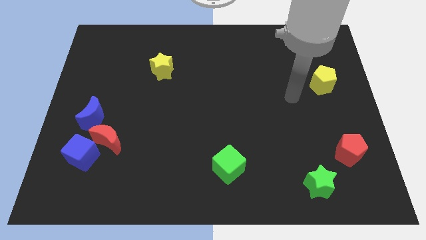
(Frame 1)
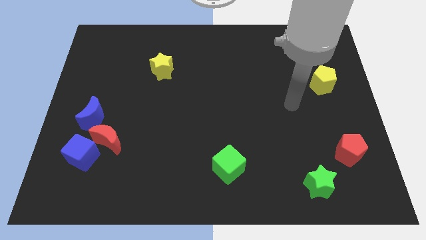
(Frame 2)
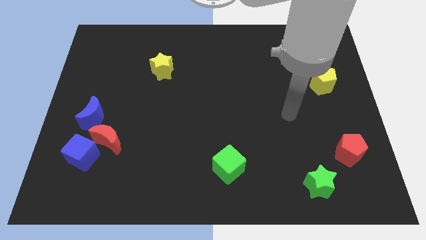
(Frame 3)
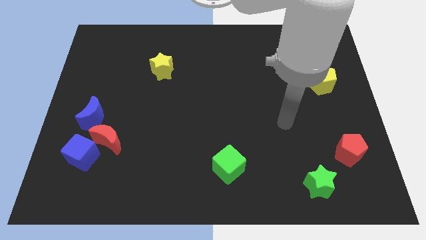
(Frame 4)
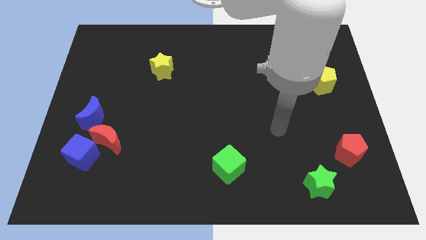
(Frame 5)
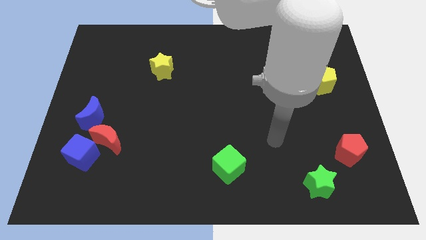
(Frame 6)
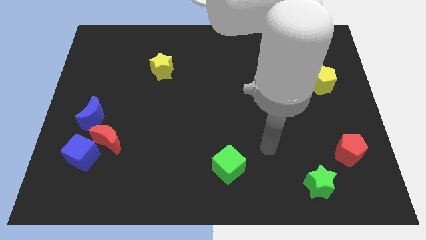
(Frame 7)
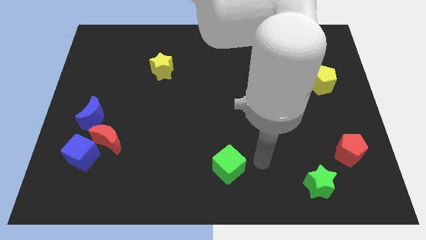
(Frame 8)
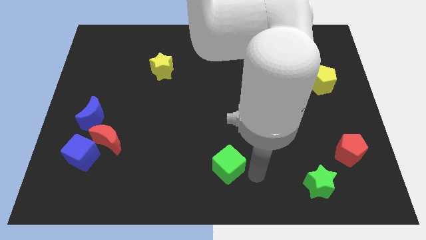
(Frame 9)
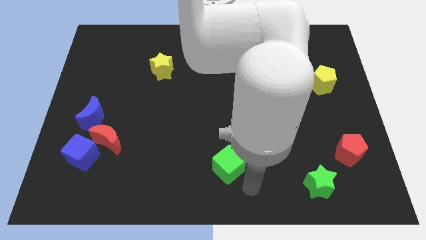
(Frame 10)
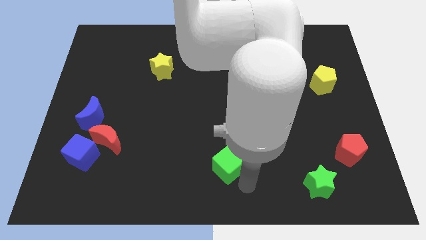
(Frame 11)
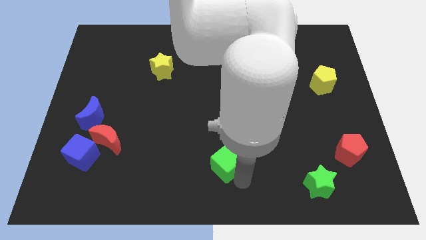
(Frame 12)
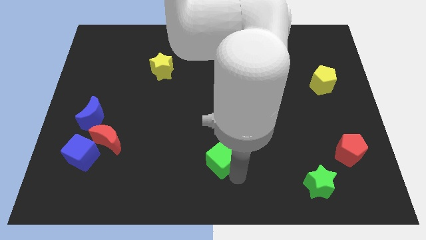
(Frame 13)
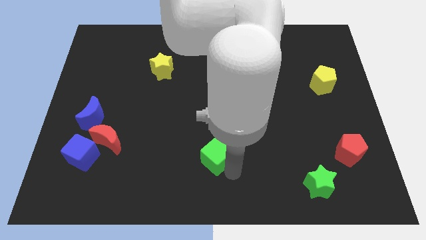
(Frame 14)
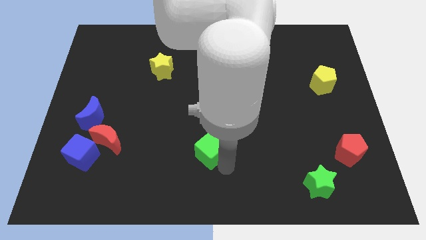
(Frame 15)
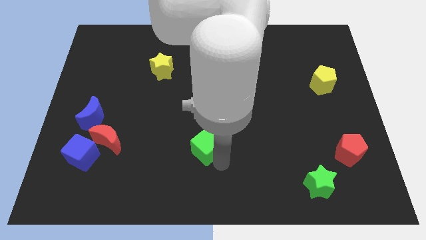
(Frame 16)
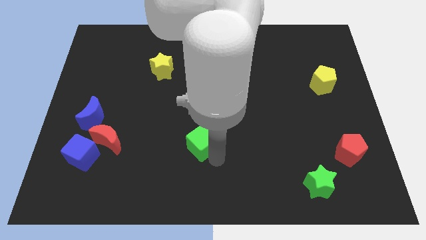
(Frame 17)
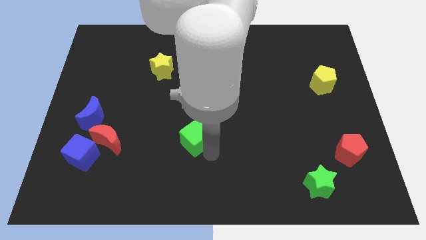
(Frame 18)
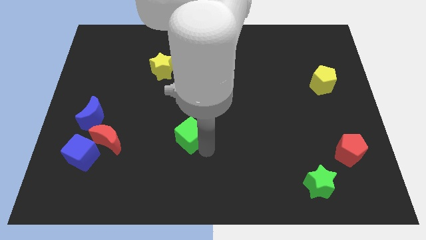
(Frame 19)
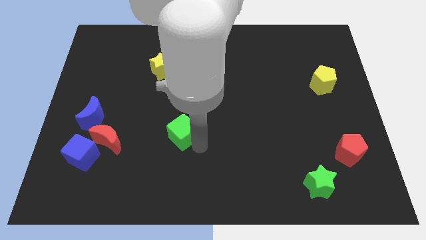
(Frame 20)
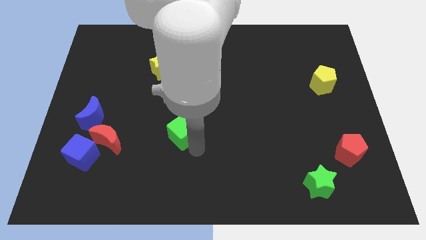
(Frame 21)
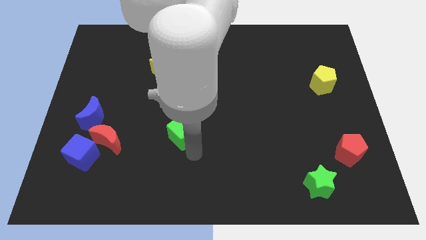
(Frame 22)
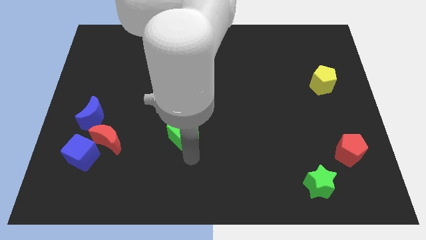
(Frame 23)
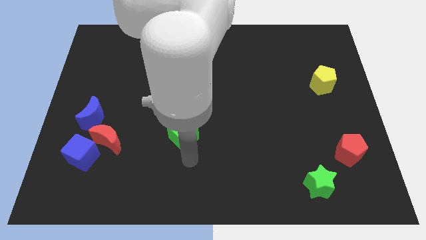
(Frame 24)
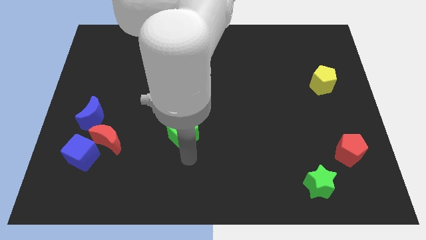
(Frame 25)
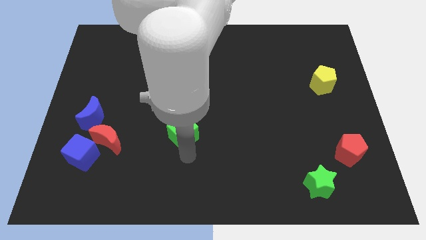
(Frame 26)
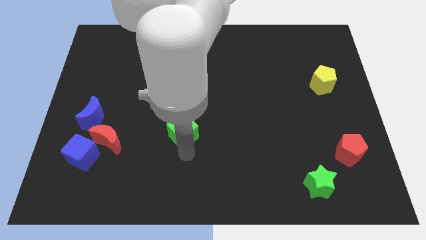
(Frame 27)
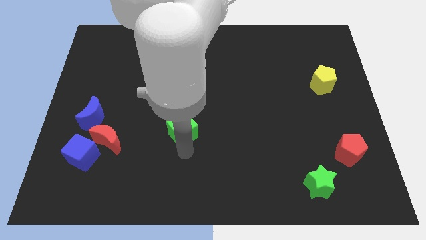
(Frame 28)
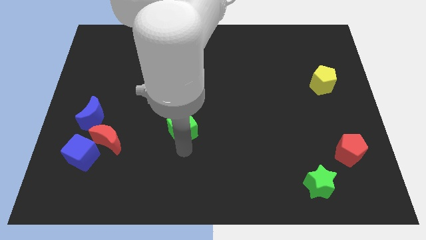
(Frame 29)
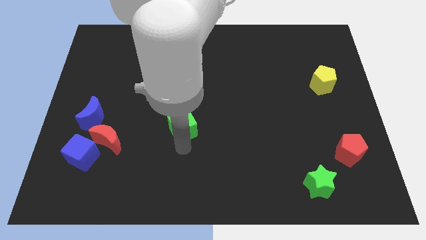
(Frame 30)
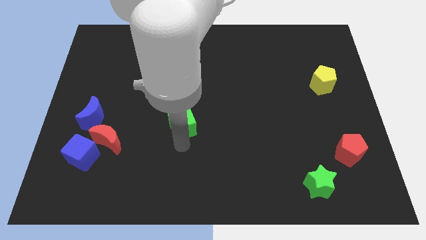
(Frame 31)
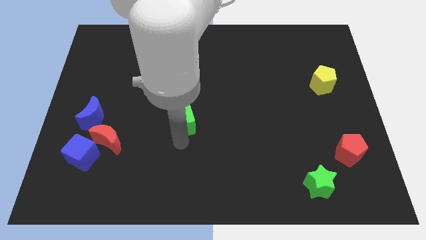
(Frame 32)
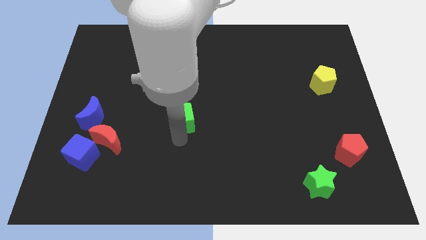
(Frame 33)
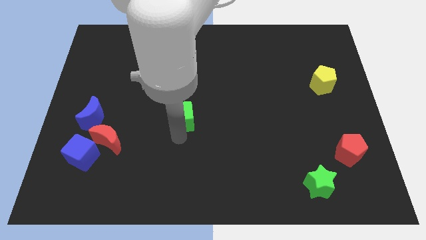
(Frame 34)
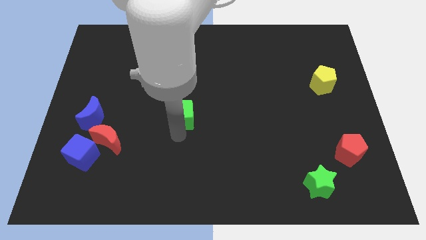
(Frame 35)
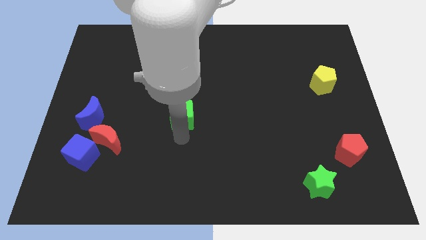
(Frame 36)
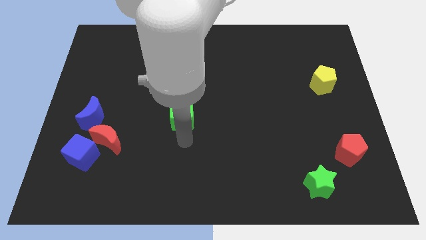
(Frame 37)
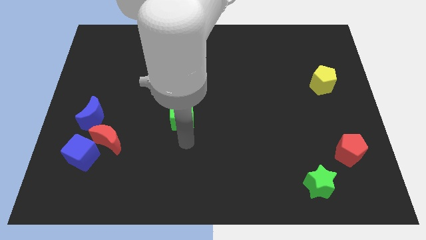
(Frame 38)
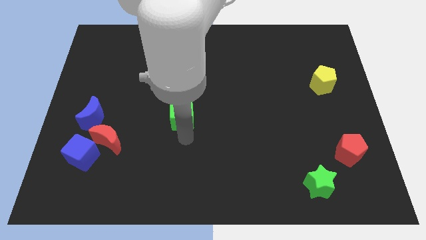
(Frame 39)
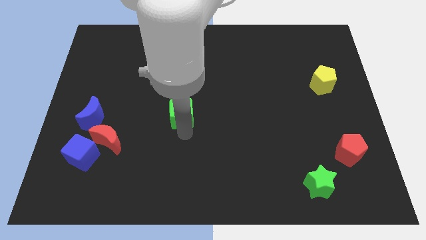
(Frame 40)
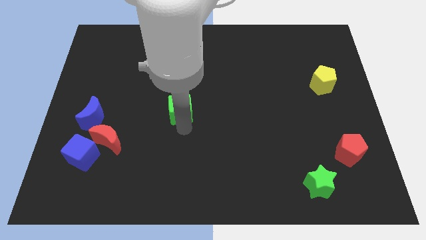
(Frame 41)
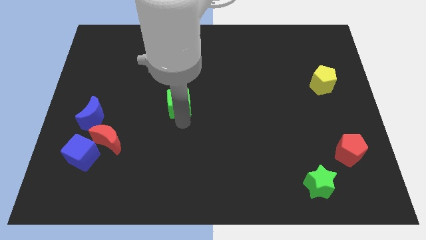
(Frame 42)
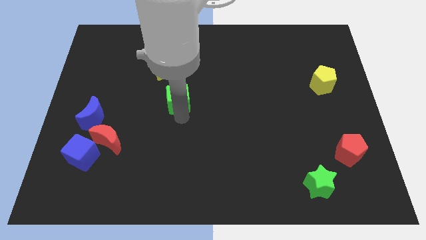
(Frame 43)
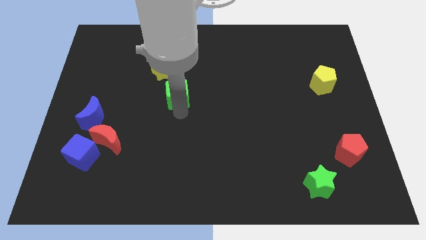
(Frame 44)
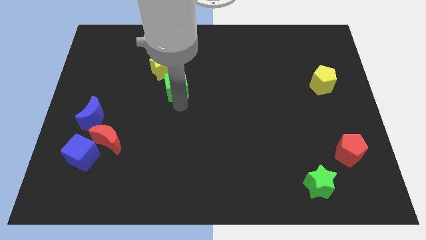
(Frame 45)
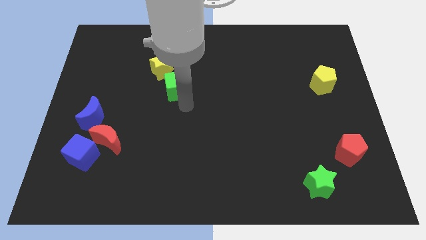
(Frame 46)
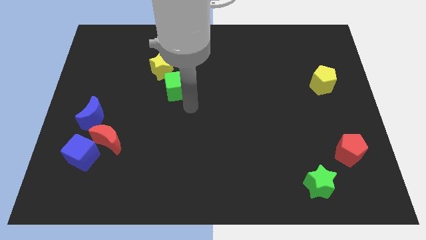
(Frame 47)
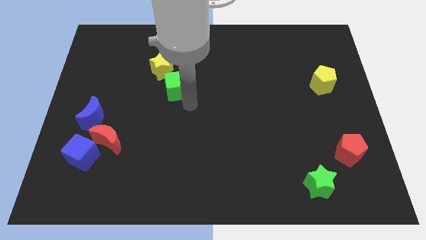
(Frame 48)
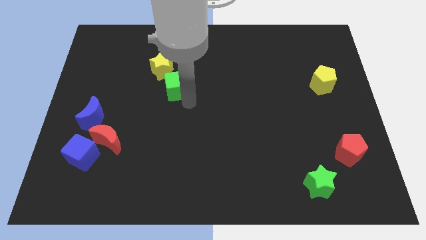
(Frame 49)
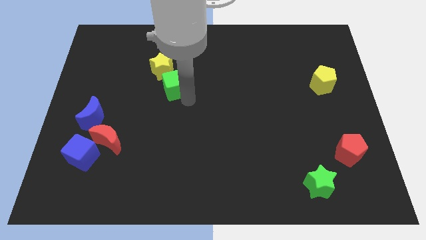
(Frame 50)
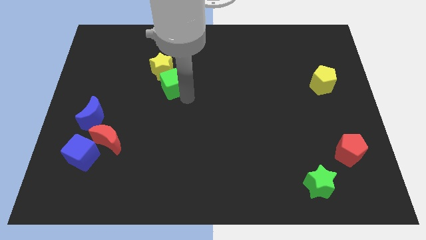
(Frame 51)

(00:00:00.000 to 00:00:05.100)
move the green cube close to the yellow star

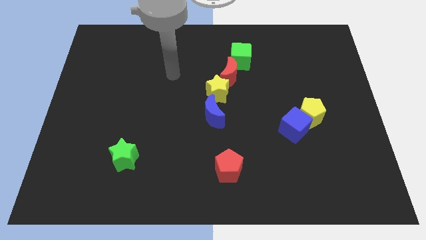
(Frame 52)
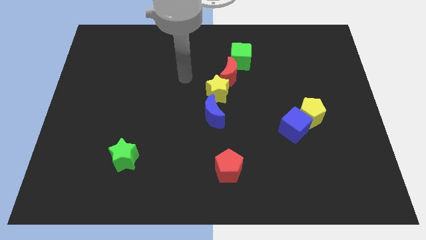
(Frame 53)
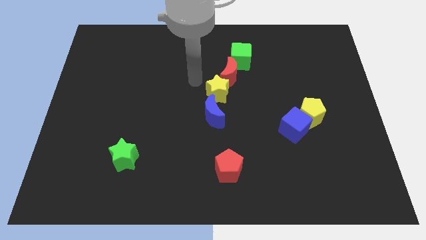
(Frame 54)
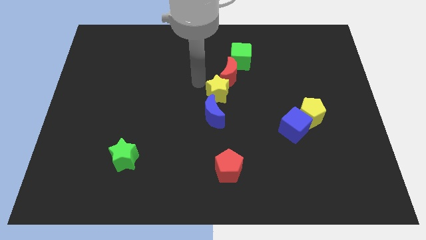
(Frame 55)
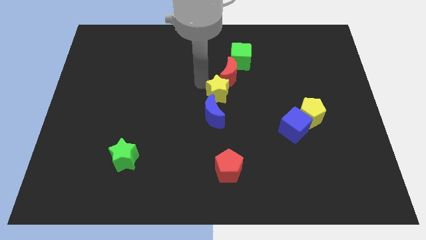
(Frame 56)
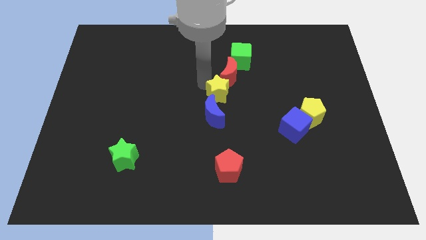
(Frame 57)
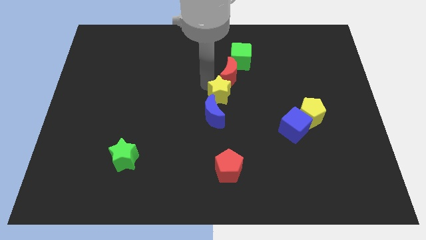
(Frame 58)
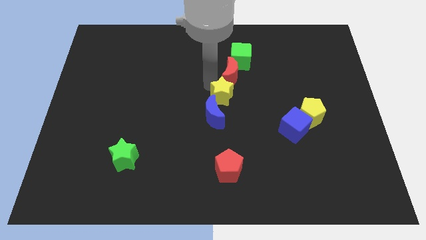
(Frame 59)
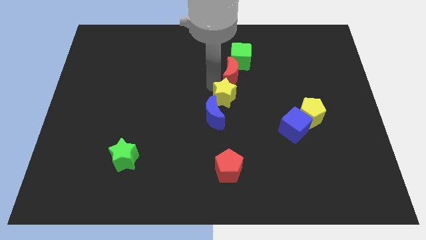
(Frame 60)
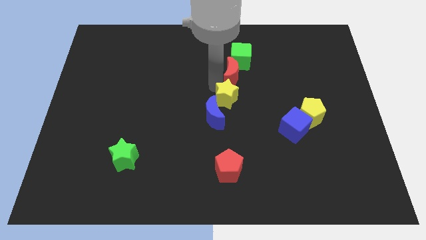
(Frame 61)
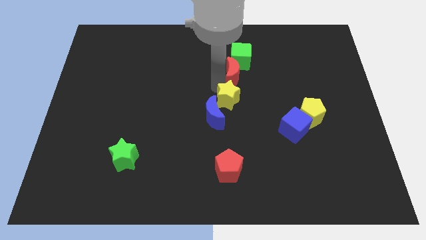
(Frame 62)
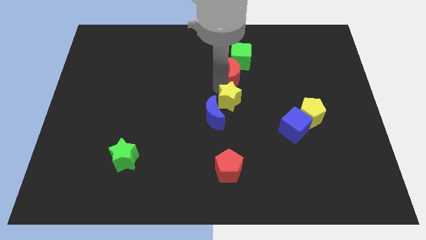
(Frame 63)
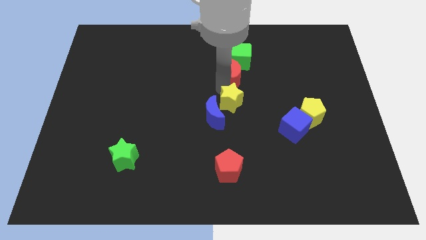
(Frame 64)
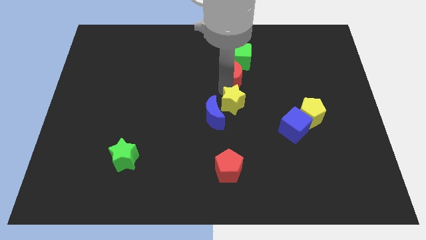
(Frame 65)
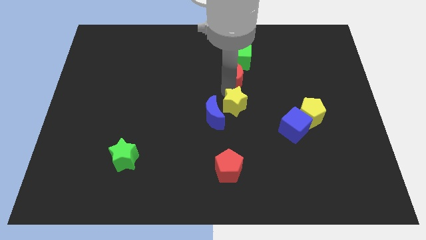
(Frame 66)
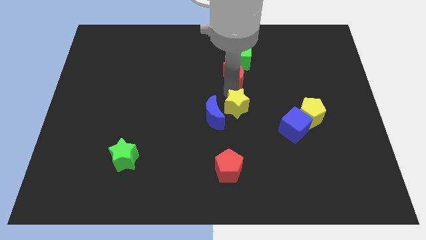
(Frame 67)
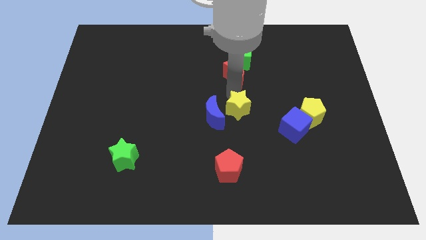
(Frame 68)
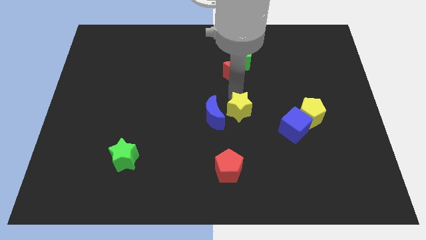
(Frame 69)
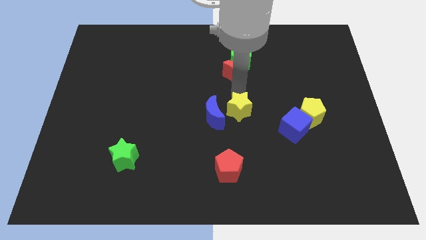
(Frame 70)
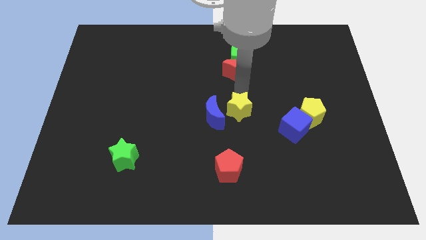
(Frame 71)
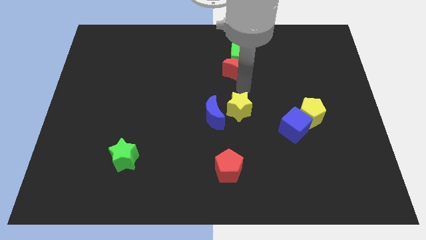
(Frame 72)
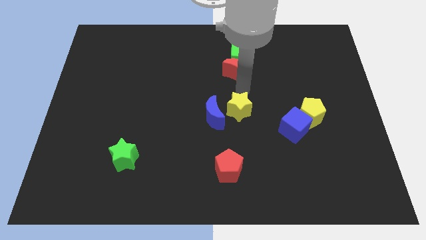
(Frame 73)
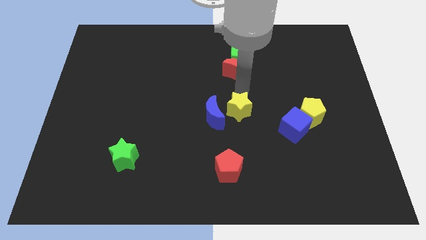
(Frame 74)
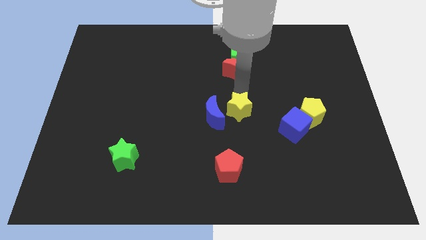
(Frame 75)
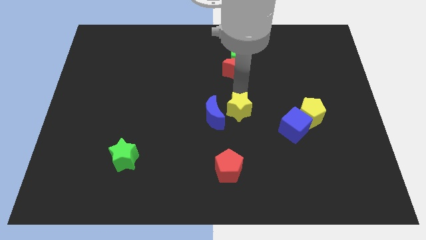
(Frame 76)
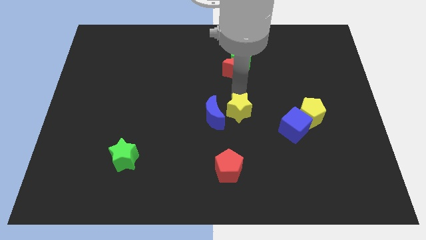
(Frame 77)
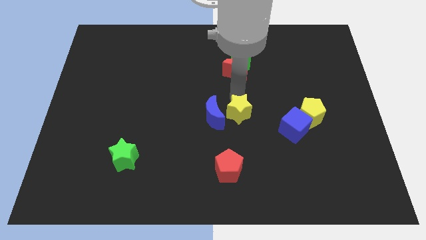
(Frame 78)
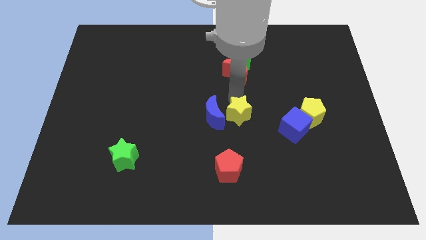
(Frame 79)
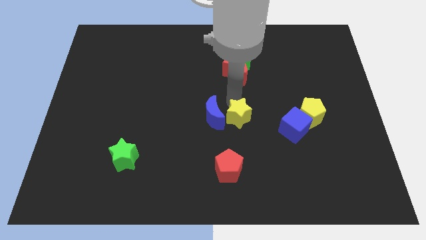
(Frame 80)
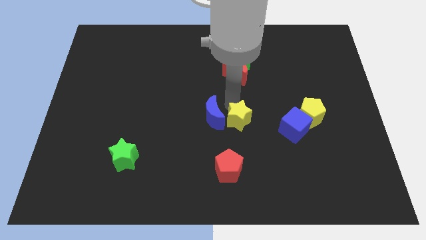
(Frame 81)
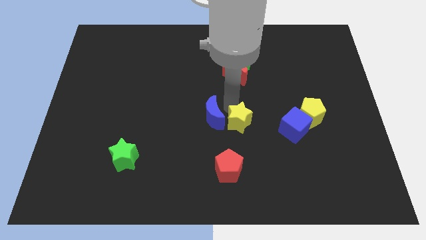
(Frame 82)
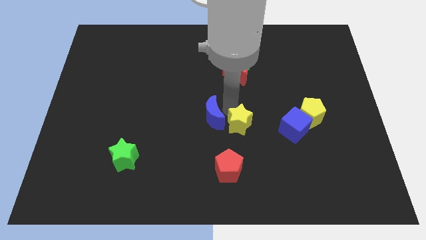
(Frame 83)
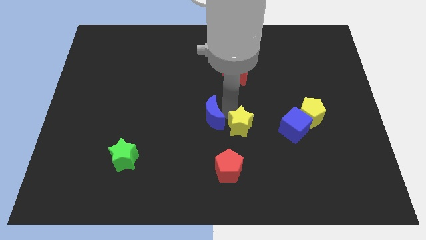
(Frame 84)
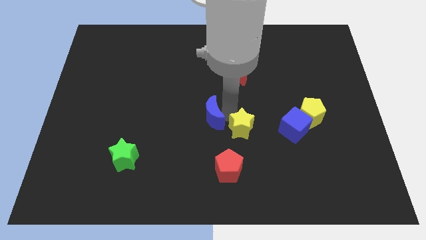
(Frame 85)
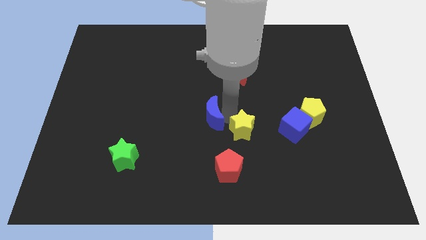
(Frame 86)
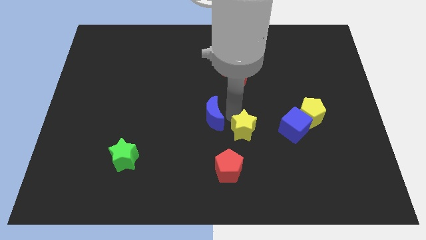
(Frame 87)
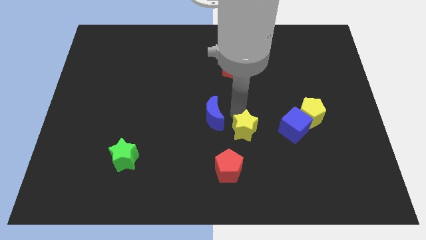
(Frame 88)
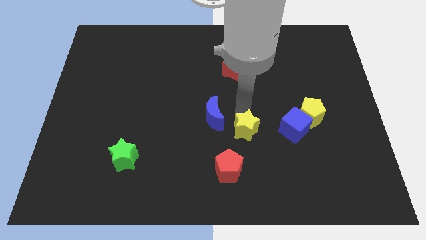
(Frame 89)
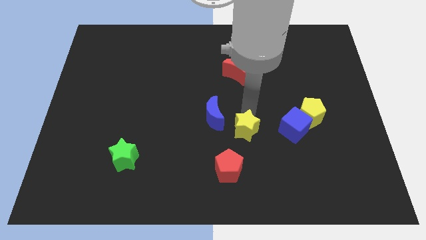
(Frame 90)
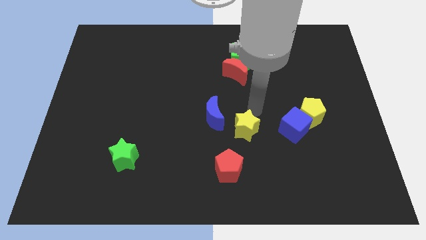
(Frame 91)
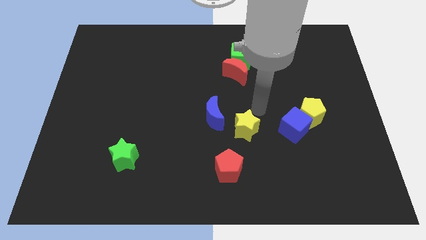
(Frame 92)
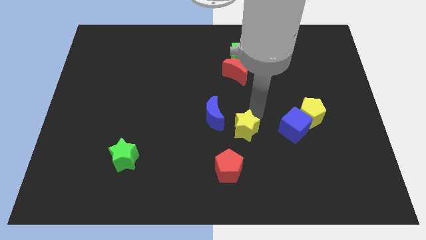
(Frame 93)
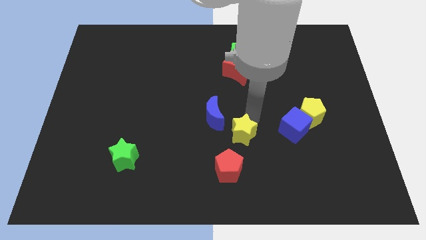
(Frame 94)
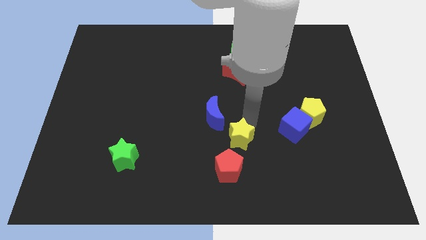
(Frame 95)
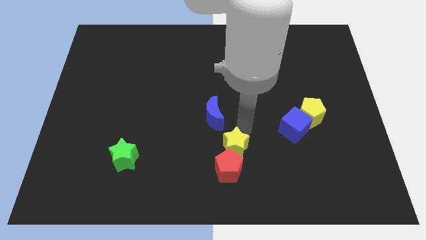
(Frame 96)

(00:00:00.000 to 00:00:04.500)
slide the yellow star close to the red pentagon
